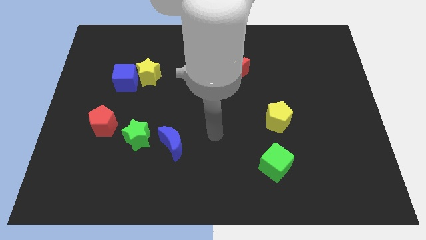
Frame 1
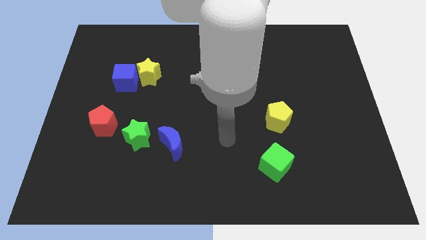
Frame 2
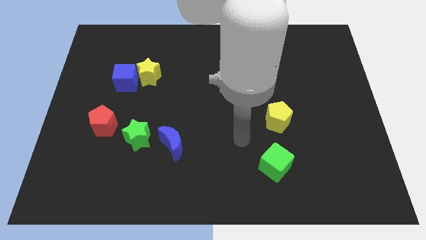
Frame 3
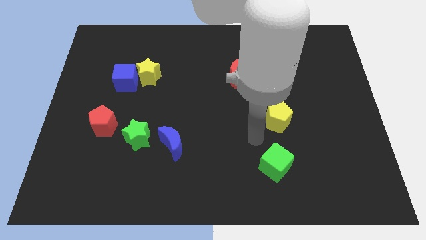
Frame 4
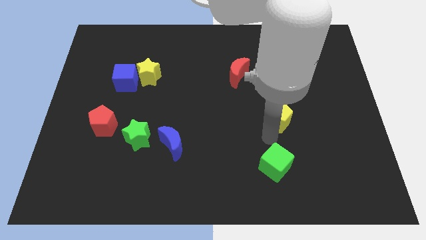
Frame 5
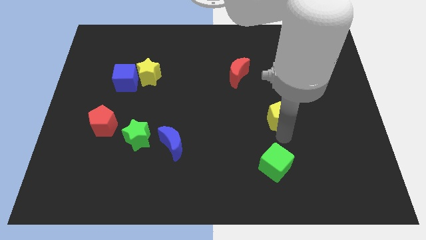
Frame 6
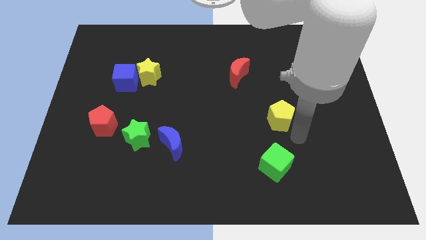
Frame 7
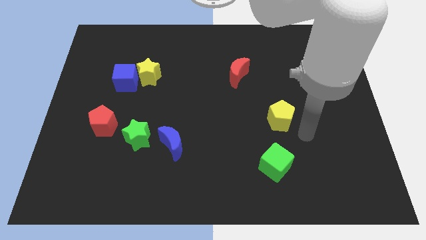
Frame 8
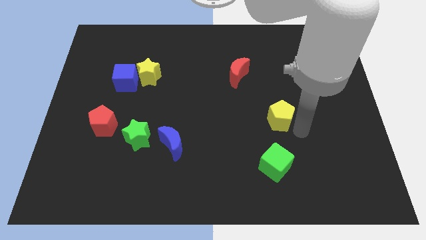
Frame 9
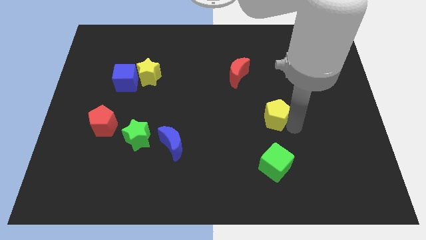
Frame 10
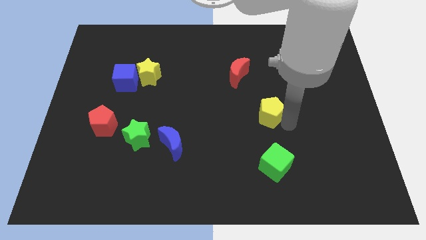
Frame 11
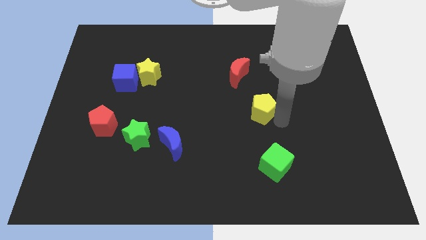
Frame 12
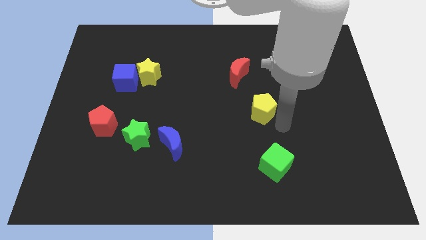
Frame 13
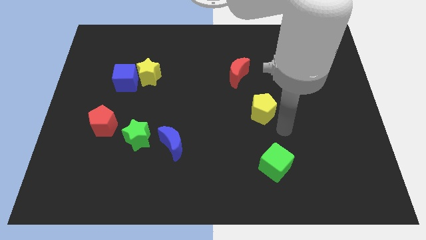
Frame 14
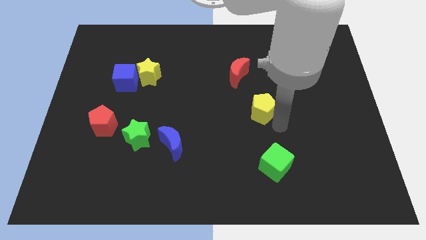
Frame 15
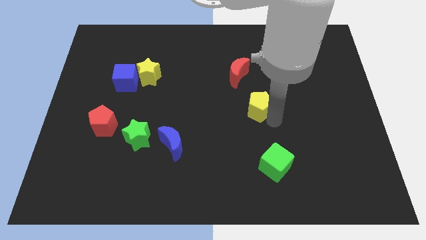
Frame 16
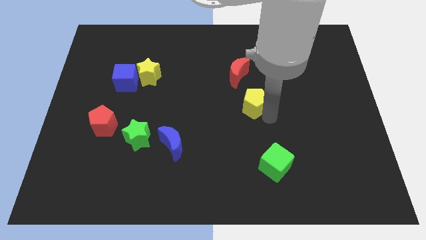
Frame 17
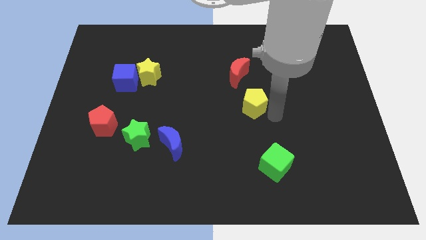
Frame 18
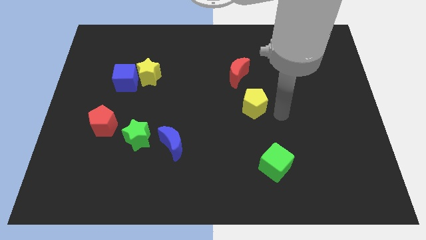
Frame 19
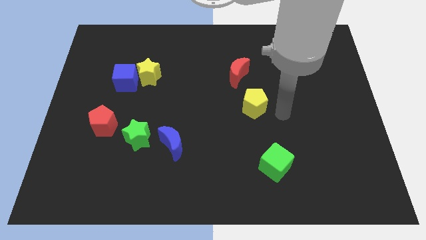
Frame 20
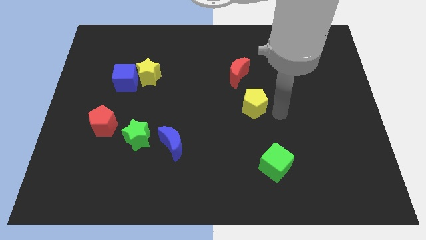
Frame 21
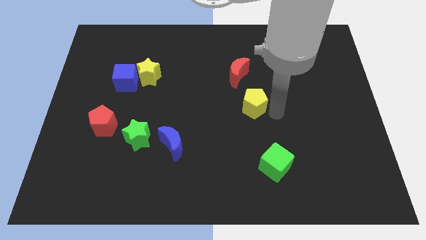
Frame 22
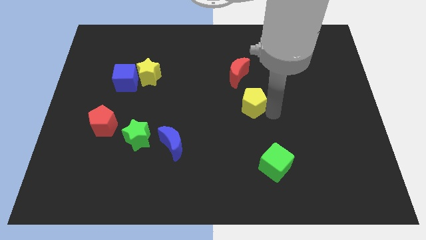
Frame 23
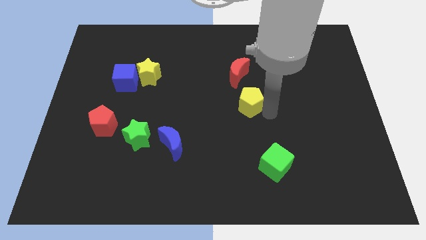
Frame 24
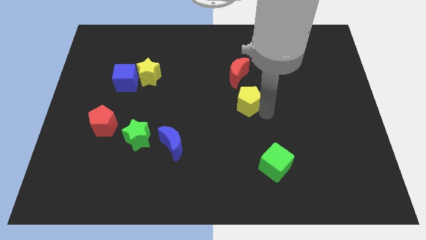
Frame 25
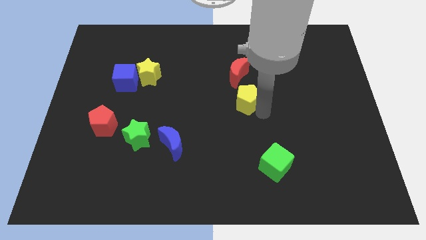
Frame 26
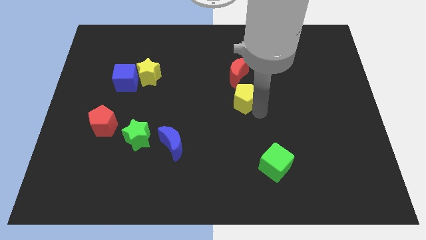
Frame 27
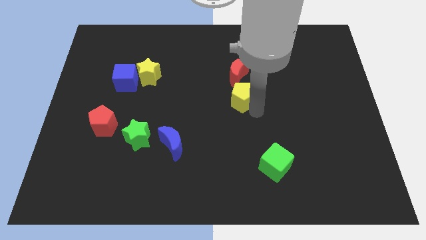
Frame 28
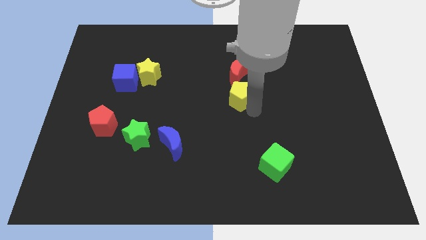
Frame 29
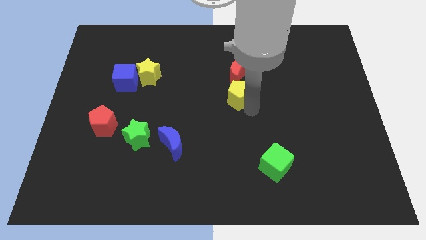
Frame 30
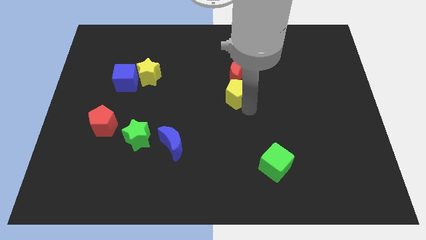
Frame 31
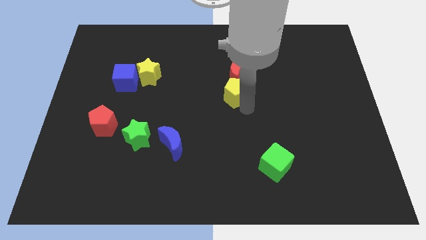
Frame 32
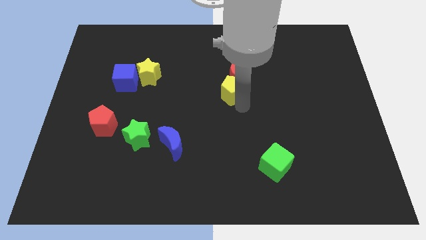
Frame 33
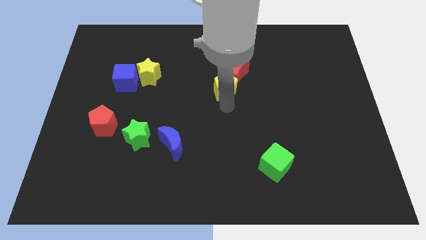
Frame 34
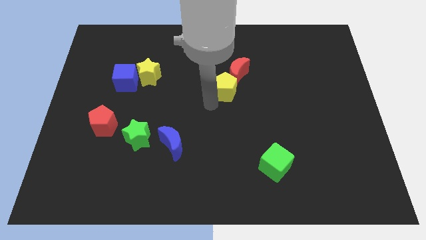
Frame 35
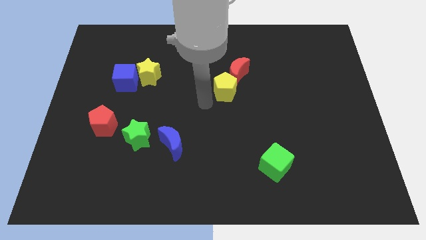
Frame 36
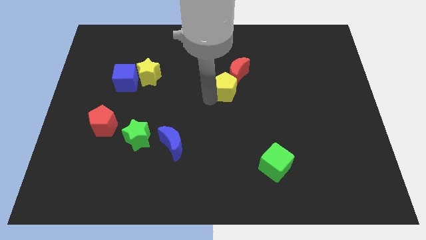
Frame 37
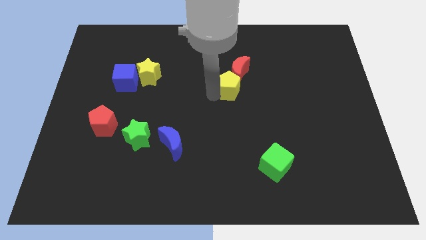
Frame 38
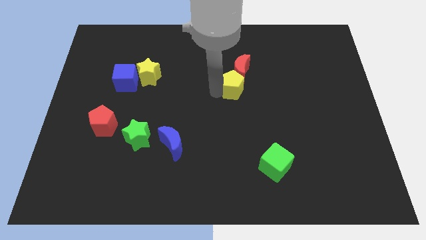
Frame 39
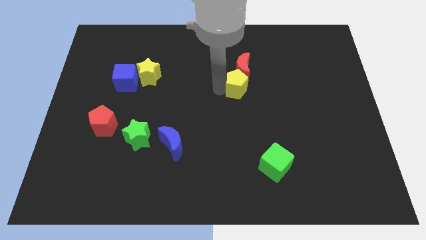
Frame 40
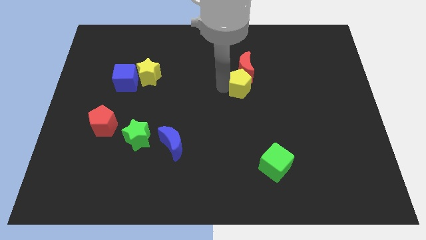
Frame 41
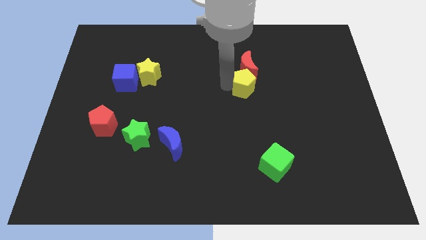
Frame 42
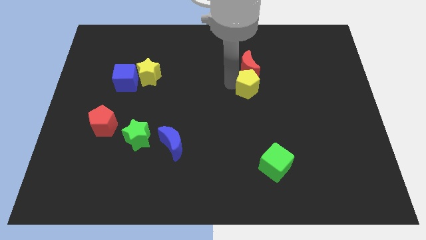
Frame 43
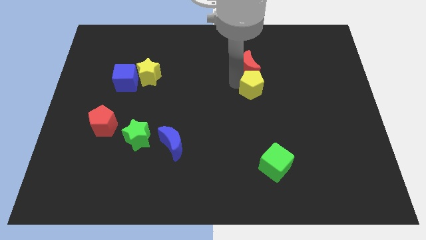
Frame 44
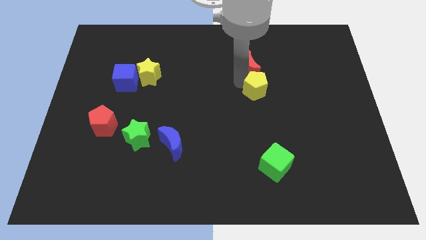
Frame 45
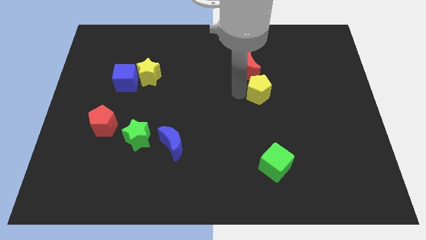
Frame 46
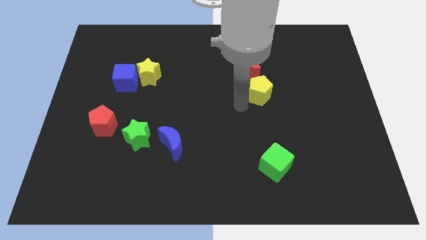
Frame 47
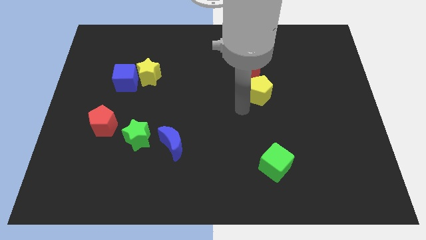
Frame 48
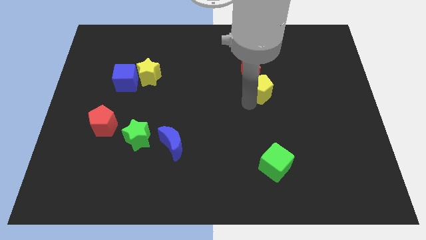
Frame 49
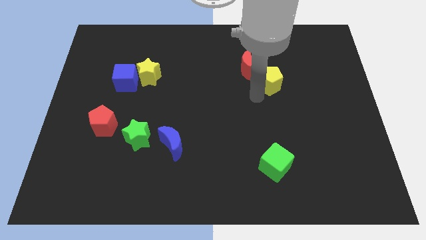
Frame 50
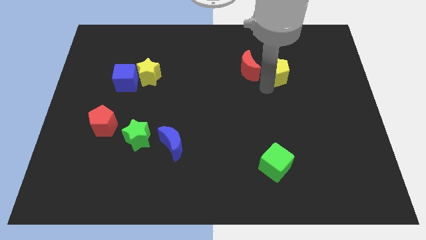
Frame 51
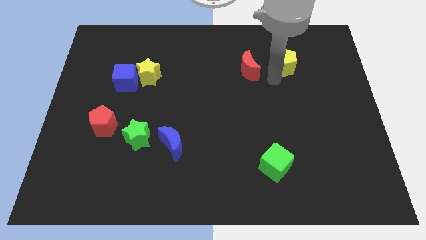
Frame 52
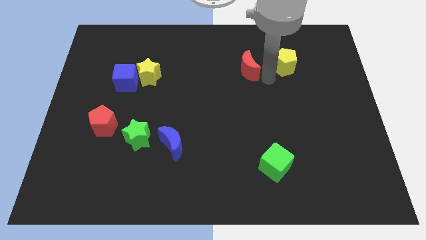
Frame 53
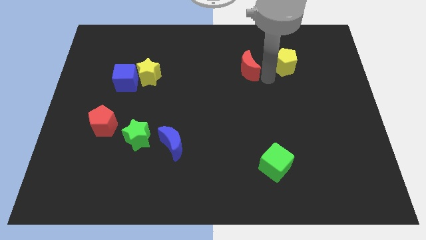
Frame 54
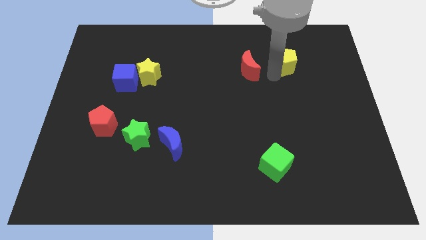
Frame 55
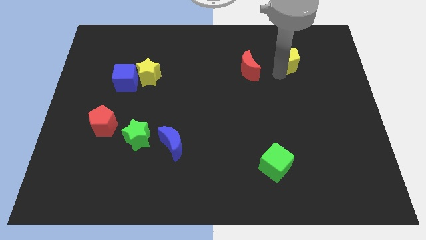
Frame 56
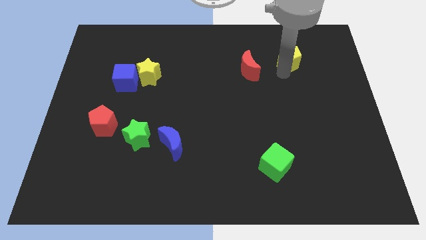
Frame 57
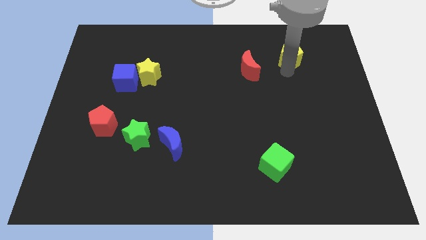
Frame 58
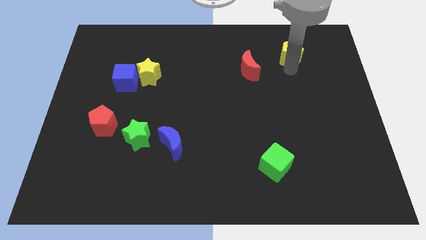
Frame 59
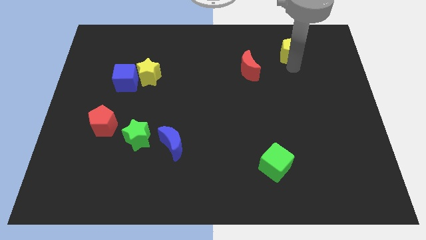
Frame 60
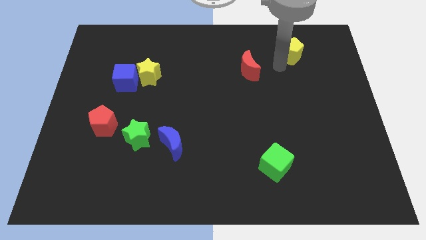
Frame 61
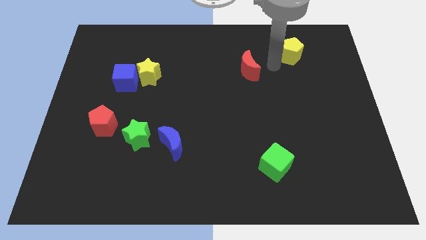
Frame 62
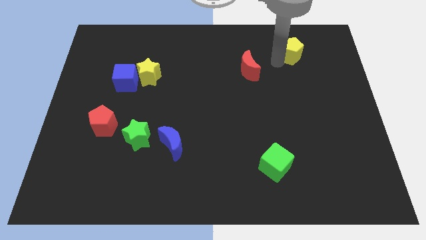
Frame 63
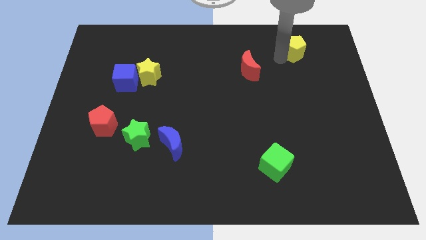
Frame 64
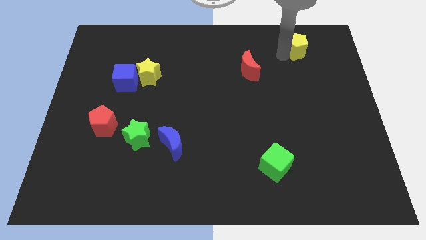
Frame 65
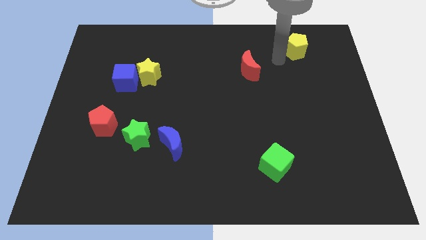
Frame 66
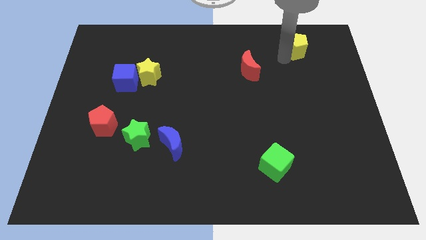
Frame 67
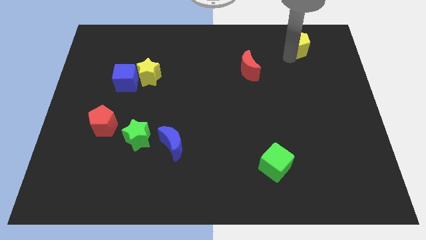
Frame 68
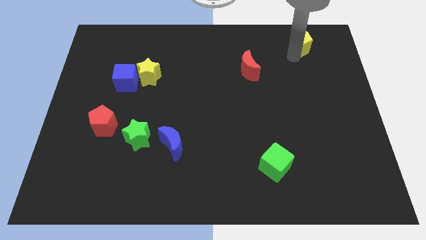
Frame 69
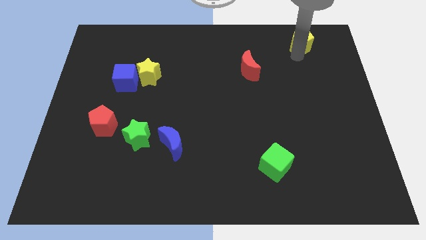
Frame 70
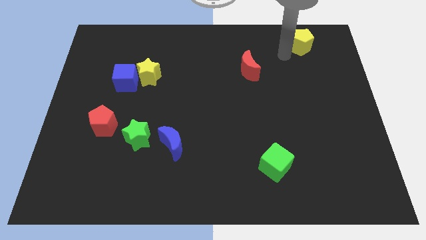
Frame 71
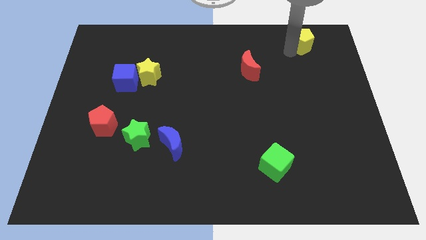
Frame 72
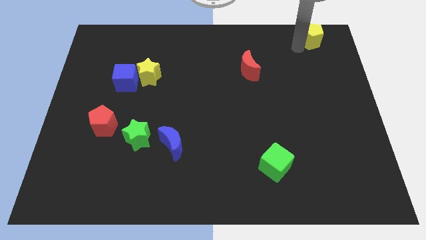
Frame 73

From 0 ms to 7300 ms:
slide the yellow pentagon to the top right corner

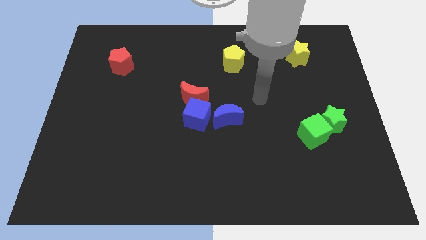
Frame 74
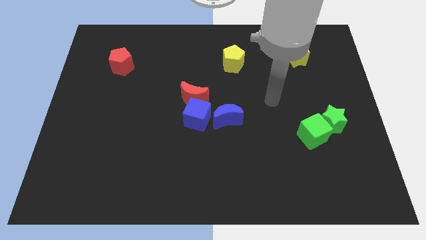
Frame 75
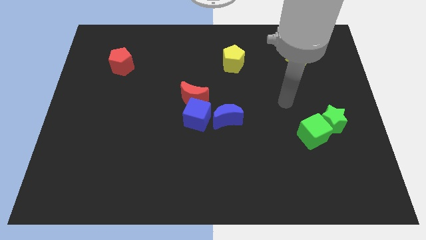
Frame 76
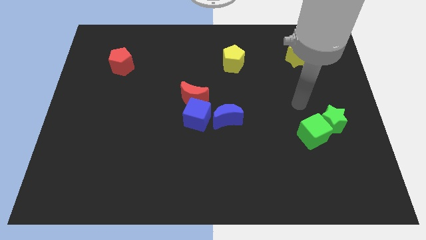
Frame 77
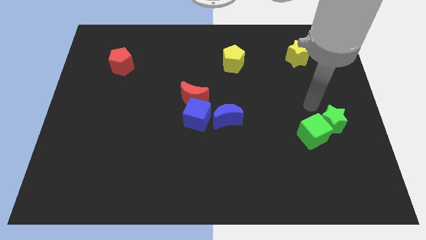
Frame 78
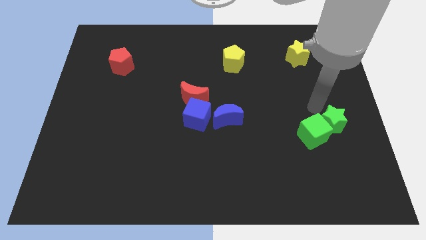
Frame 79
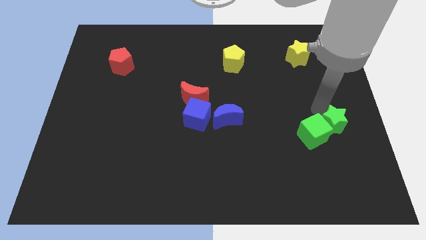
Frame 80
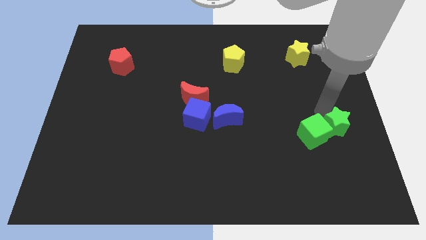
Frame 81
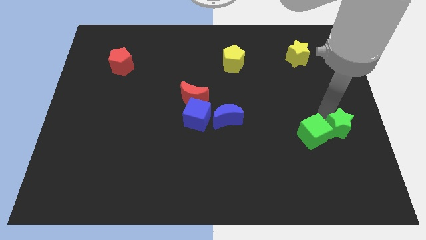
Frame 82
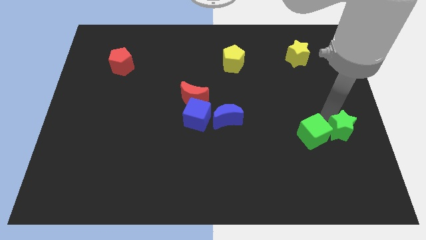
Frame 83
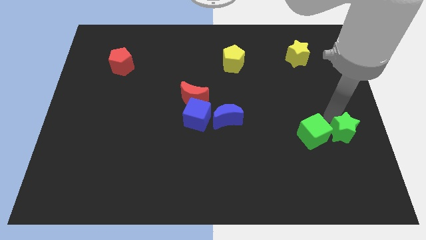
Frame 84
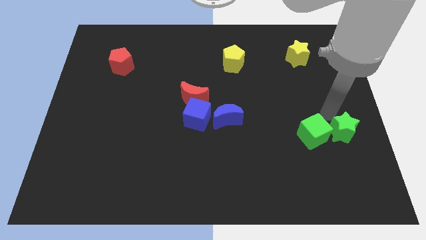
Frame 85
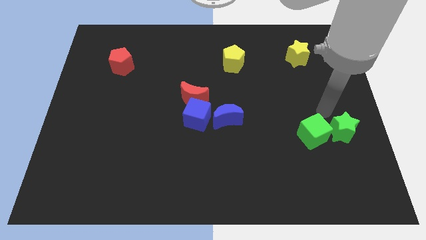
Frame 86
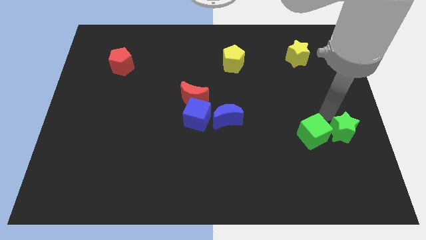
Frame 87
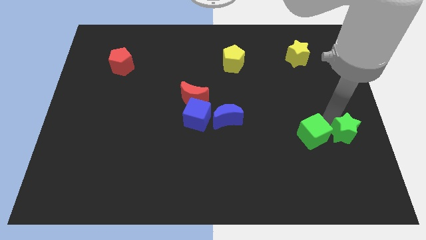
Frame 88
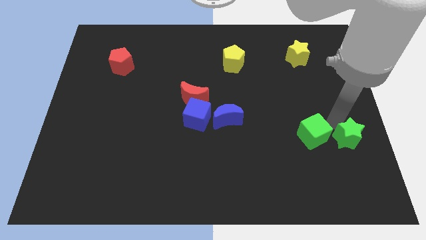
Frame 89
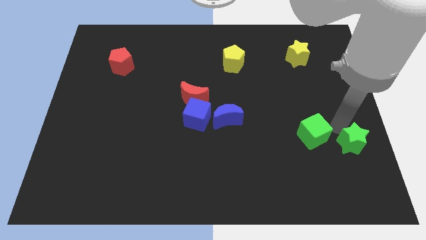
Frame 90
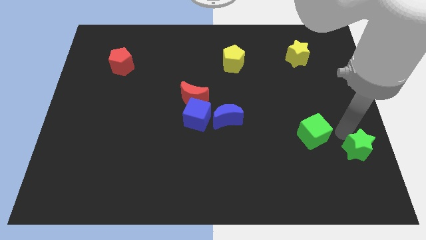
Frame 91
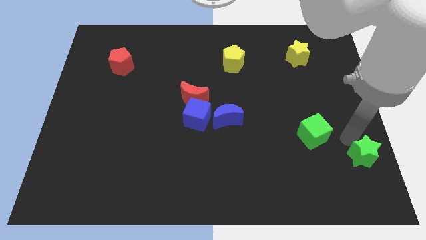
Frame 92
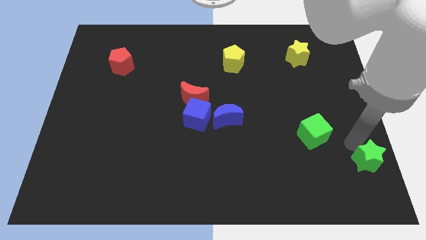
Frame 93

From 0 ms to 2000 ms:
put the green star to the bottom right
